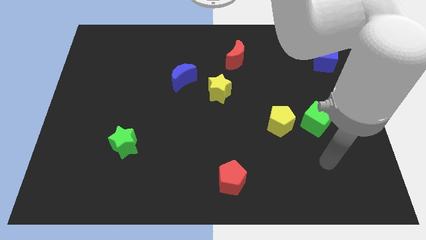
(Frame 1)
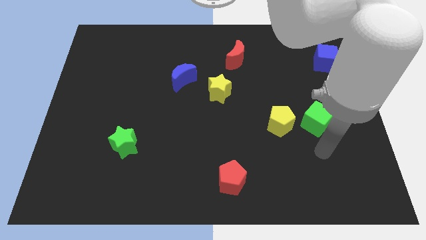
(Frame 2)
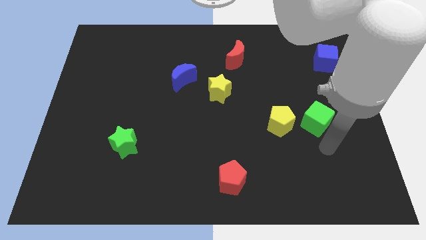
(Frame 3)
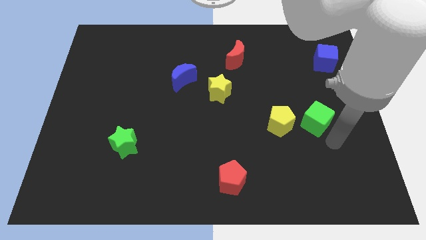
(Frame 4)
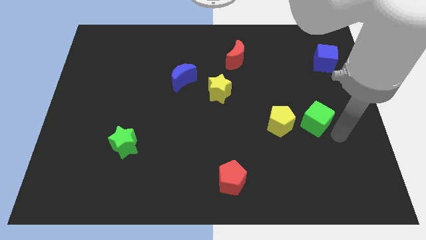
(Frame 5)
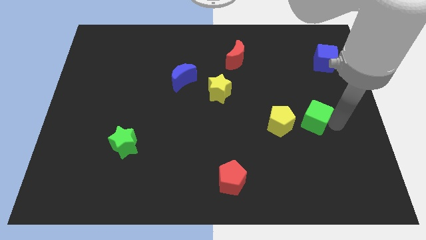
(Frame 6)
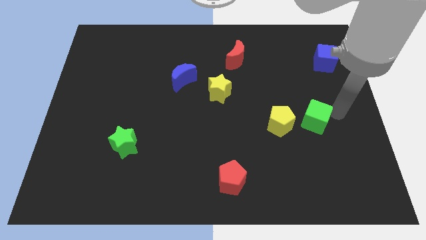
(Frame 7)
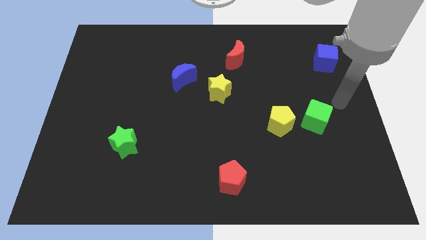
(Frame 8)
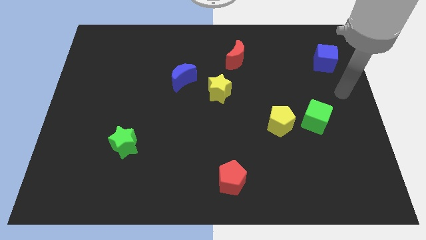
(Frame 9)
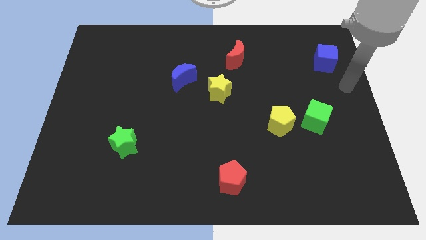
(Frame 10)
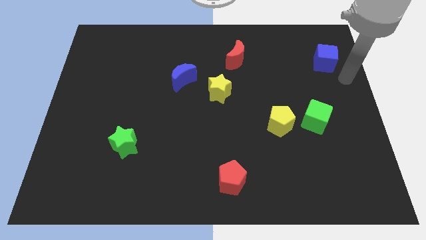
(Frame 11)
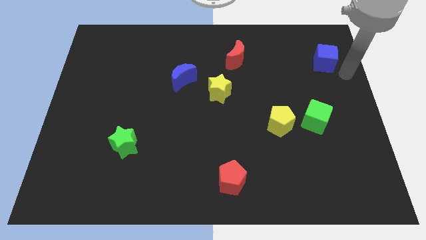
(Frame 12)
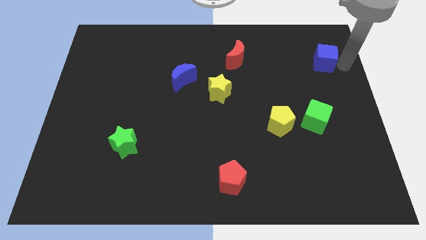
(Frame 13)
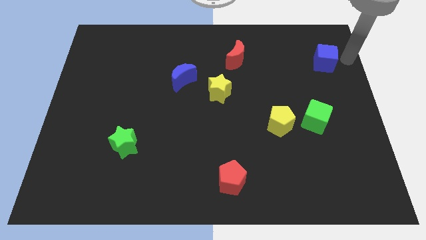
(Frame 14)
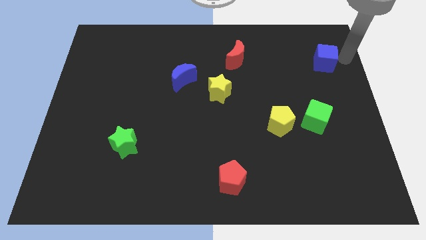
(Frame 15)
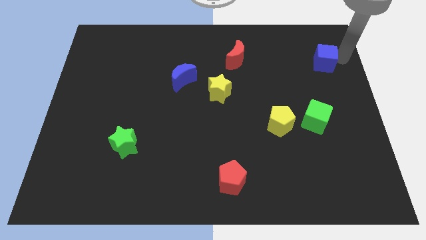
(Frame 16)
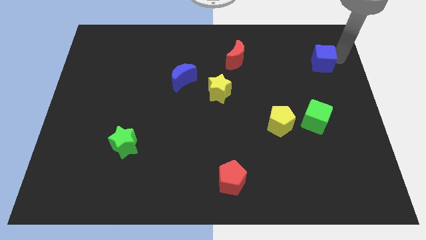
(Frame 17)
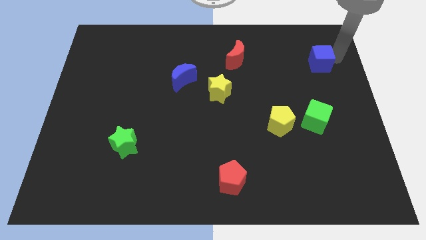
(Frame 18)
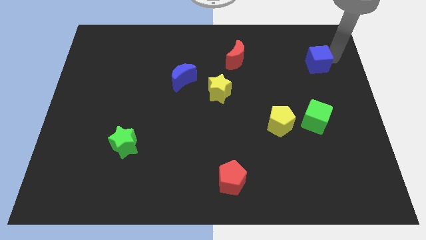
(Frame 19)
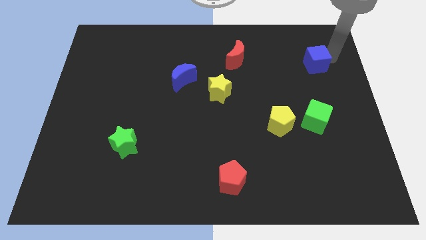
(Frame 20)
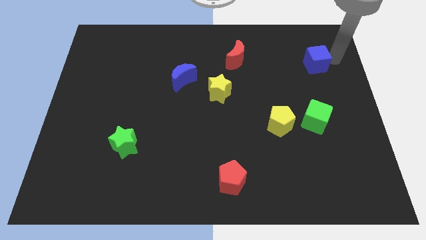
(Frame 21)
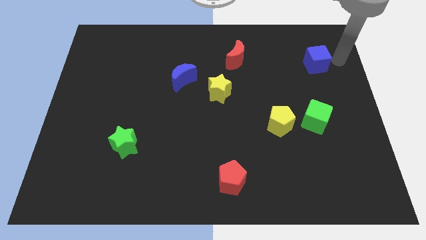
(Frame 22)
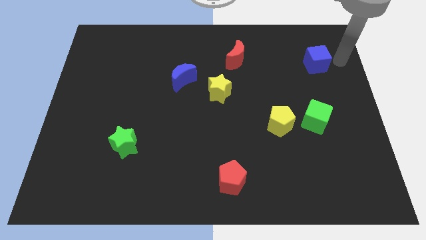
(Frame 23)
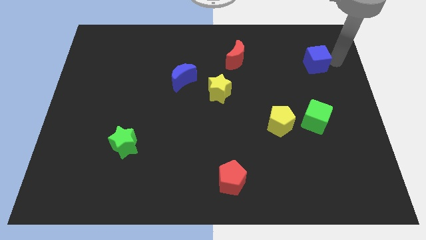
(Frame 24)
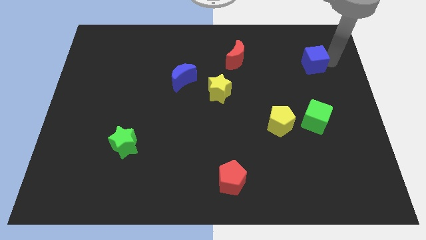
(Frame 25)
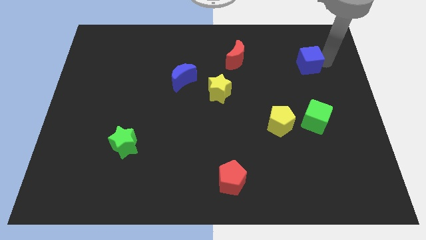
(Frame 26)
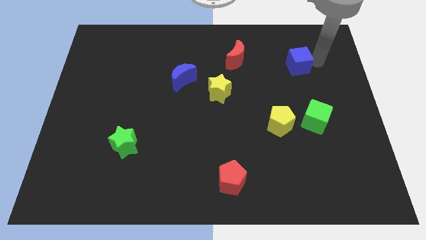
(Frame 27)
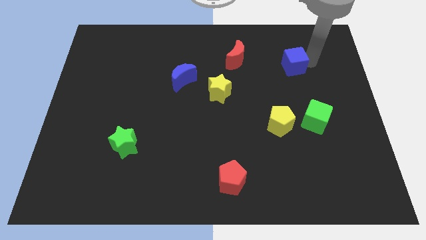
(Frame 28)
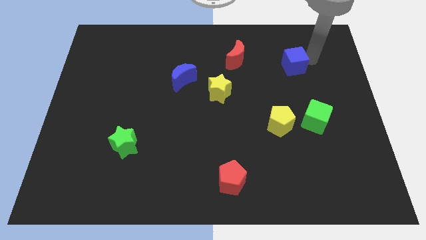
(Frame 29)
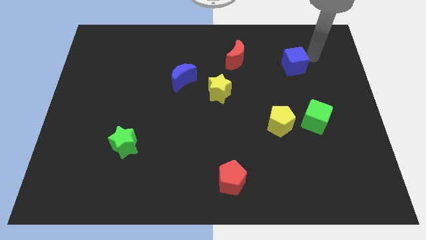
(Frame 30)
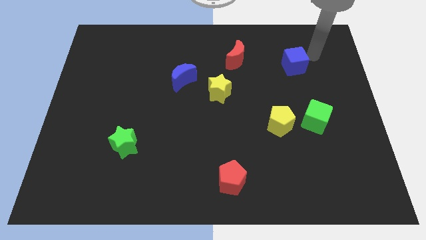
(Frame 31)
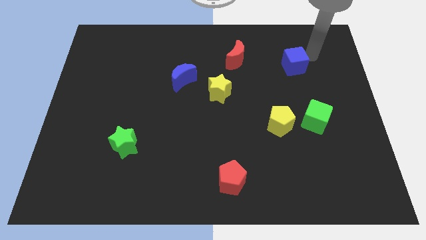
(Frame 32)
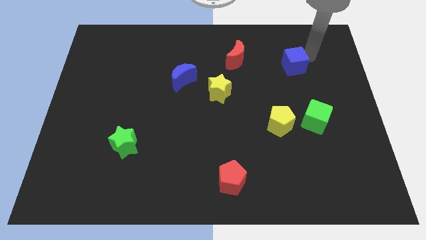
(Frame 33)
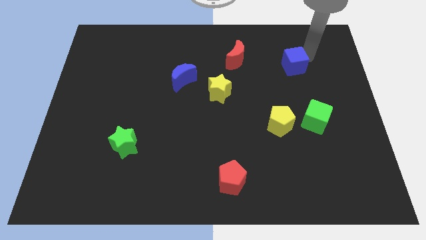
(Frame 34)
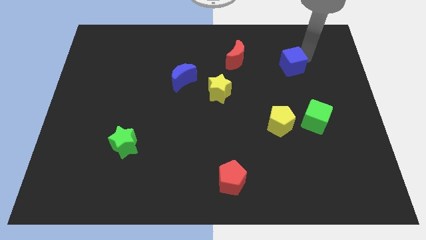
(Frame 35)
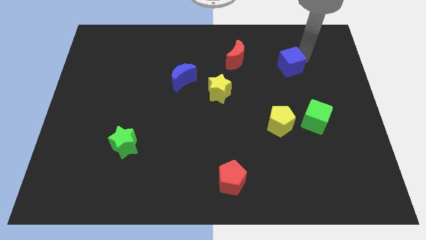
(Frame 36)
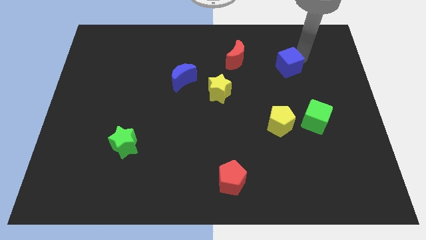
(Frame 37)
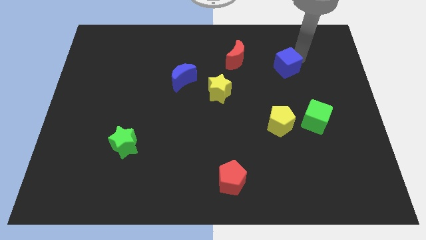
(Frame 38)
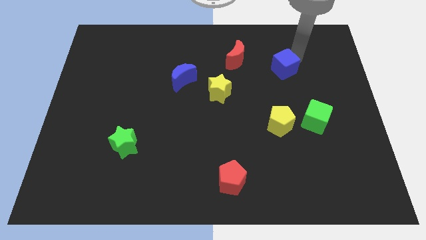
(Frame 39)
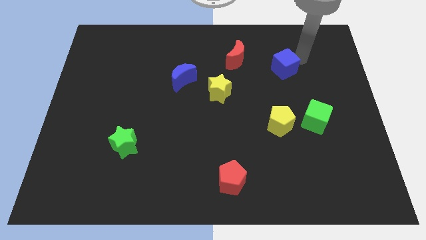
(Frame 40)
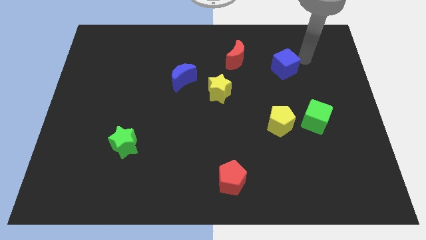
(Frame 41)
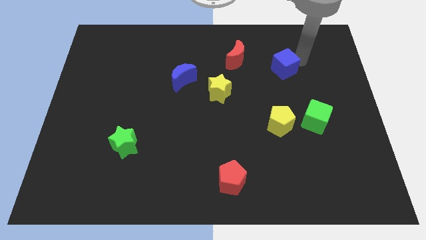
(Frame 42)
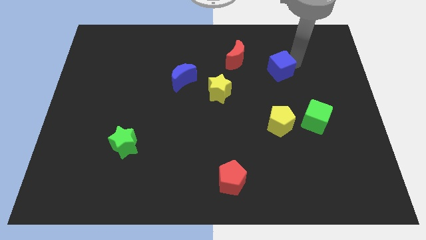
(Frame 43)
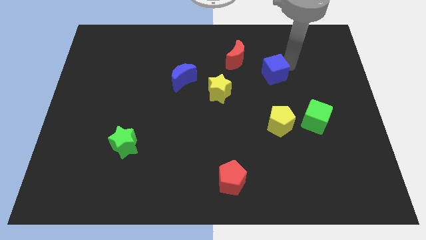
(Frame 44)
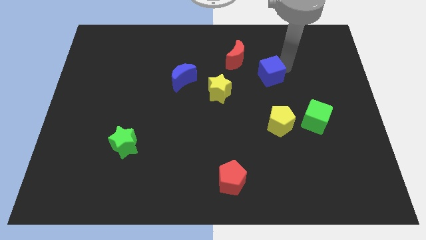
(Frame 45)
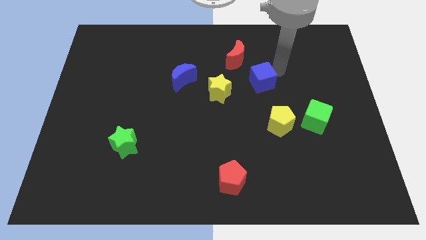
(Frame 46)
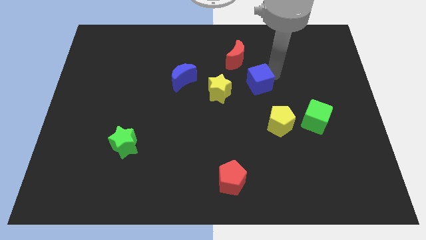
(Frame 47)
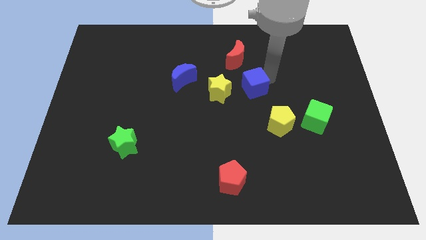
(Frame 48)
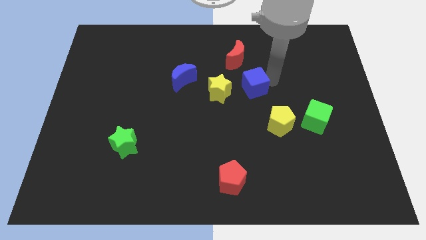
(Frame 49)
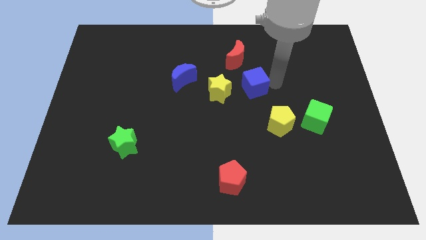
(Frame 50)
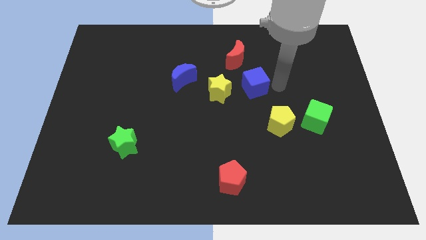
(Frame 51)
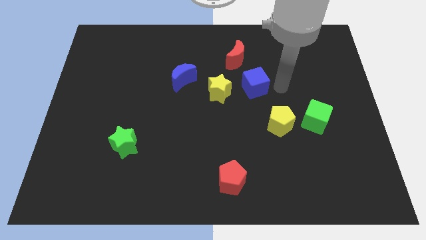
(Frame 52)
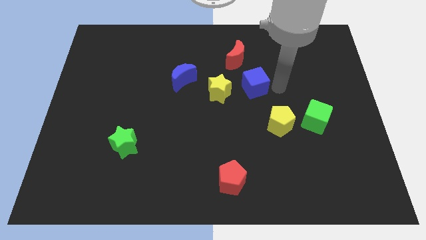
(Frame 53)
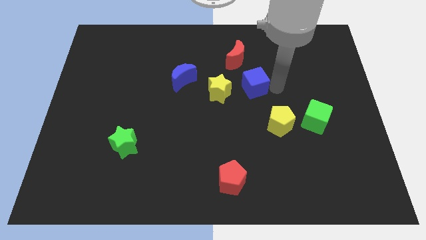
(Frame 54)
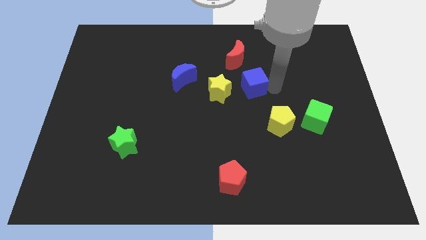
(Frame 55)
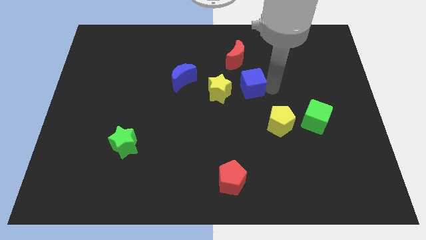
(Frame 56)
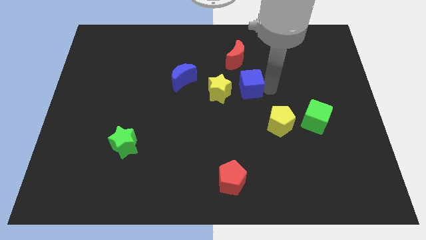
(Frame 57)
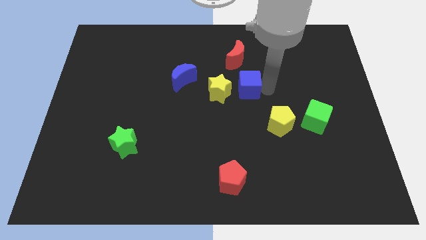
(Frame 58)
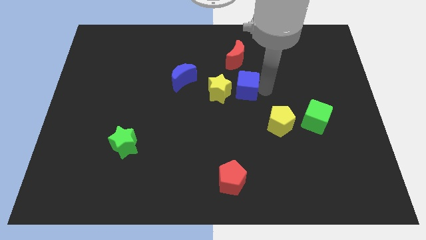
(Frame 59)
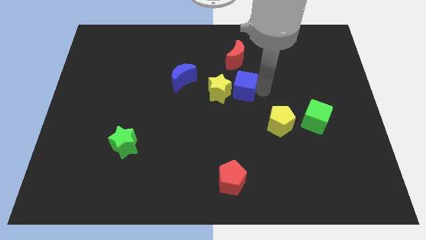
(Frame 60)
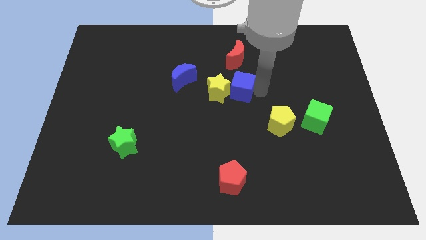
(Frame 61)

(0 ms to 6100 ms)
slide the blue cube close to the yellow star

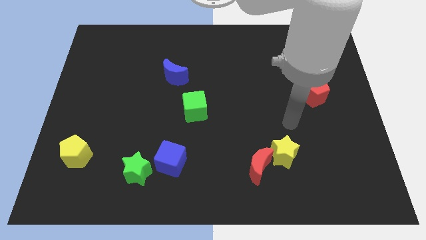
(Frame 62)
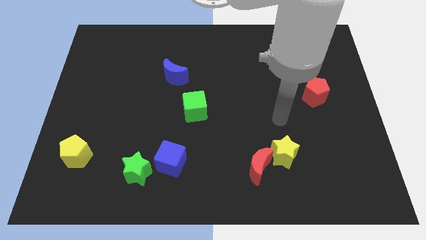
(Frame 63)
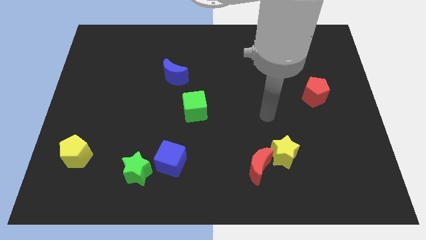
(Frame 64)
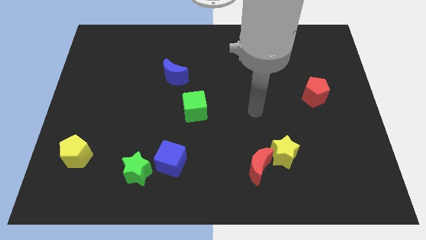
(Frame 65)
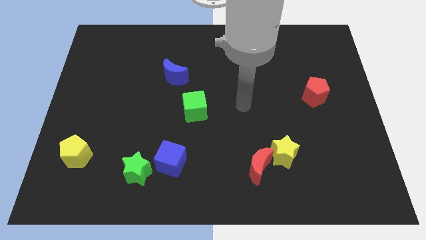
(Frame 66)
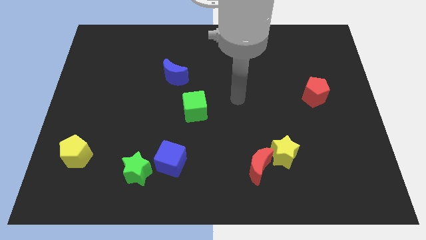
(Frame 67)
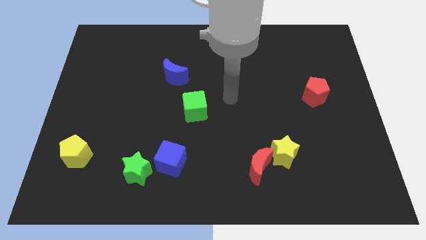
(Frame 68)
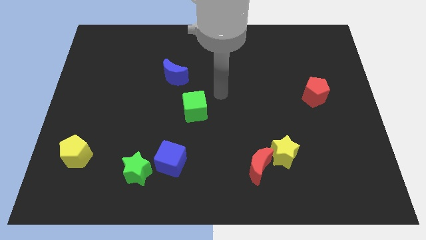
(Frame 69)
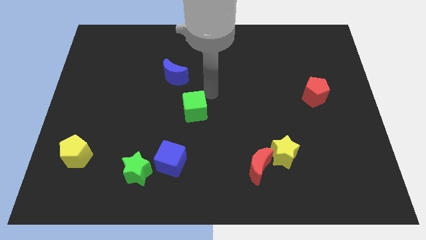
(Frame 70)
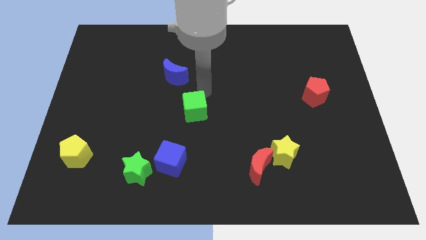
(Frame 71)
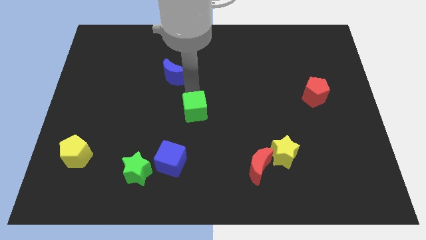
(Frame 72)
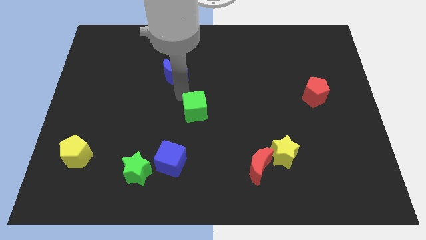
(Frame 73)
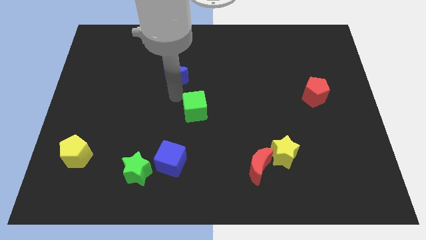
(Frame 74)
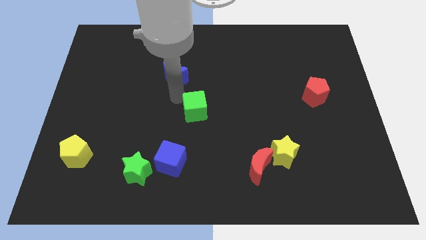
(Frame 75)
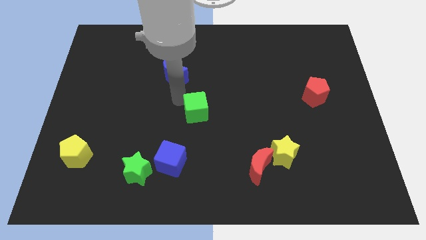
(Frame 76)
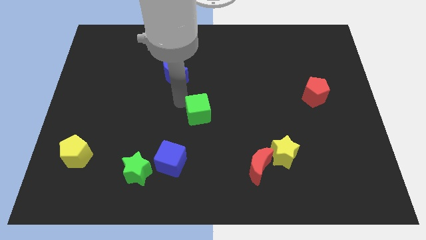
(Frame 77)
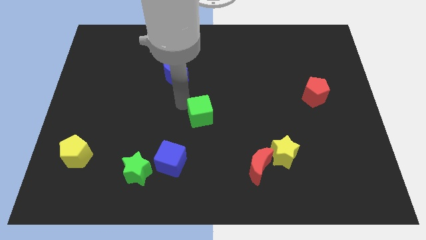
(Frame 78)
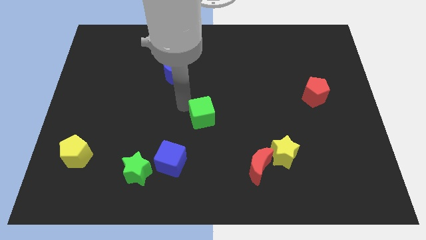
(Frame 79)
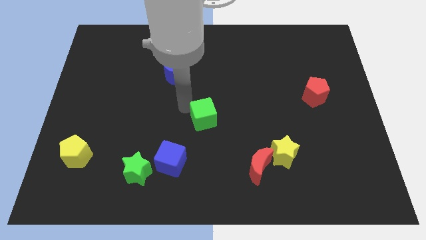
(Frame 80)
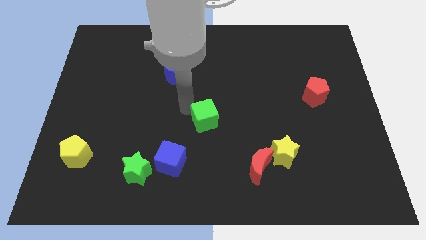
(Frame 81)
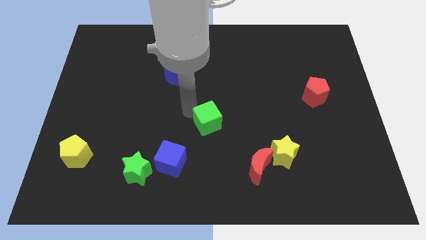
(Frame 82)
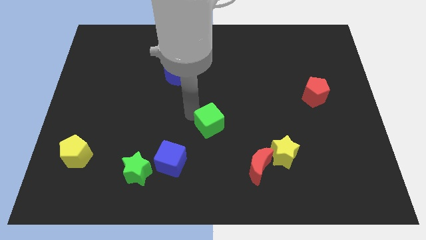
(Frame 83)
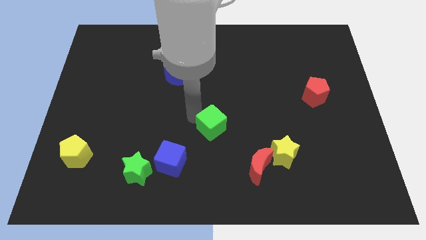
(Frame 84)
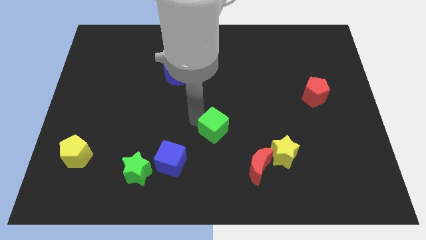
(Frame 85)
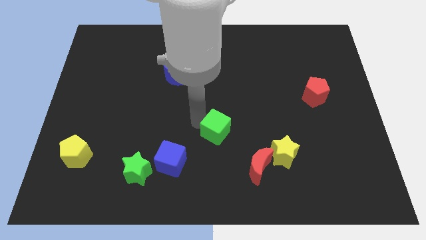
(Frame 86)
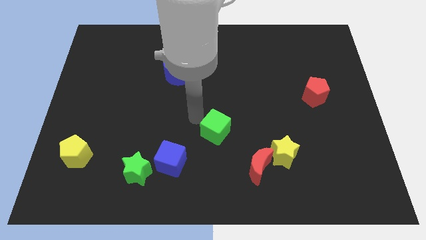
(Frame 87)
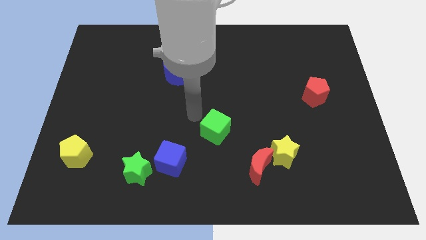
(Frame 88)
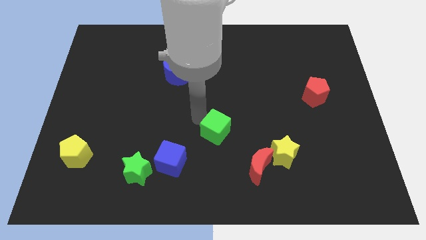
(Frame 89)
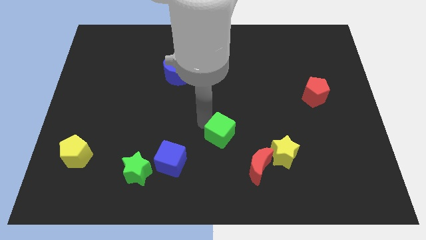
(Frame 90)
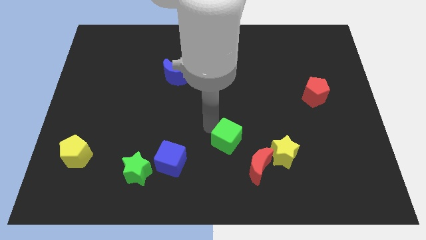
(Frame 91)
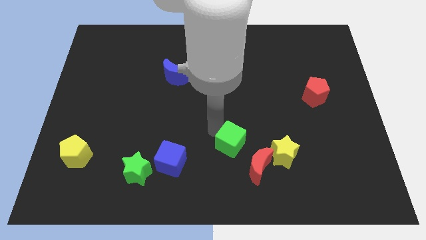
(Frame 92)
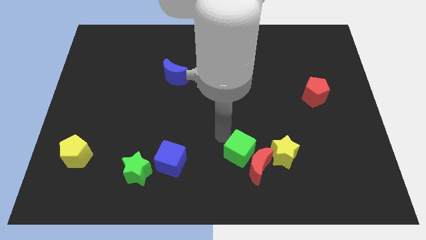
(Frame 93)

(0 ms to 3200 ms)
slide the green cube next to the red moon
